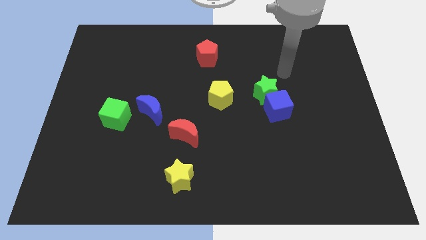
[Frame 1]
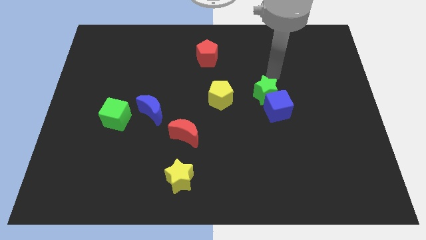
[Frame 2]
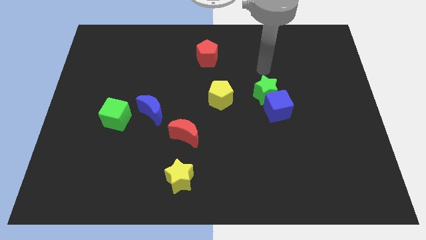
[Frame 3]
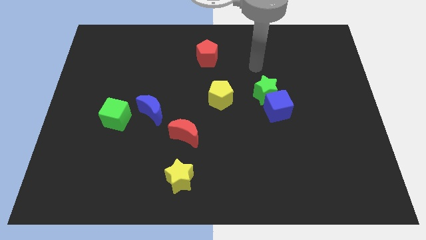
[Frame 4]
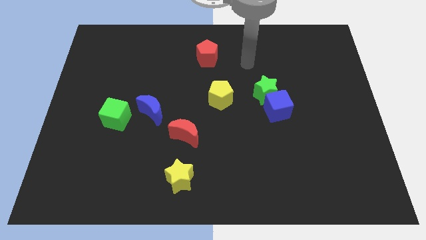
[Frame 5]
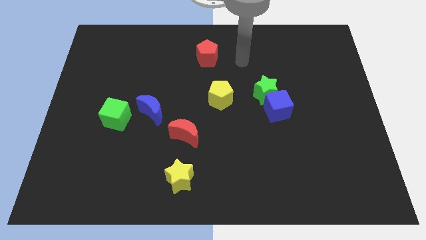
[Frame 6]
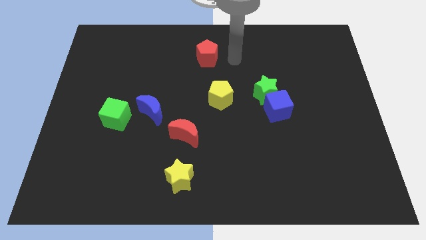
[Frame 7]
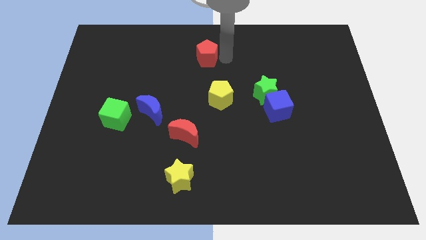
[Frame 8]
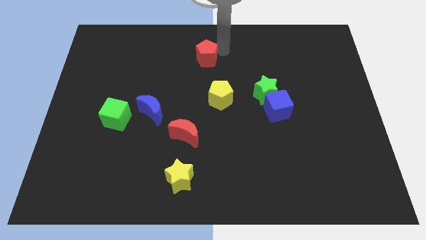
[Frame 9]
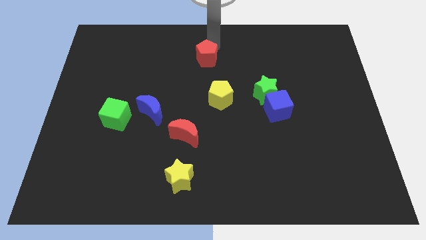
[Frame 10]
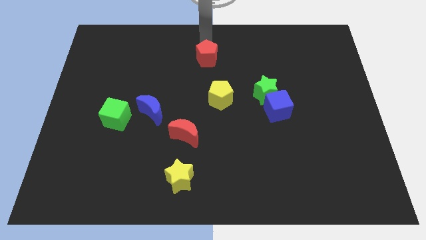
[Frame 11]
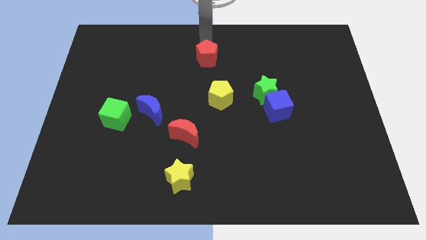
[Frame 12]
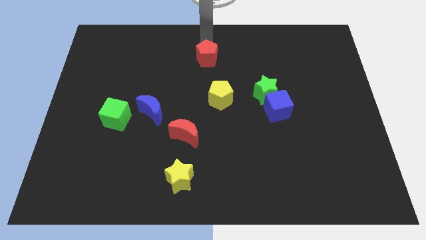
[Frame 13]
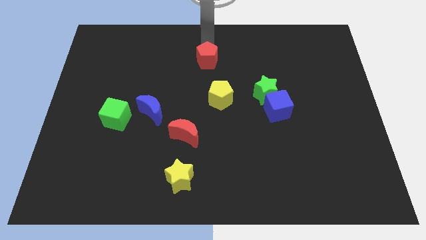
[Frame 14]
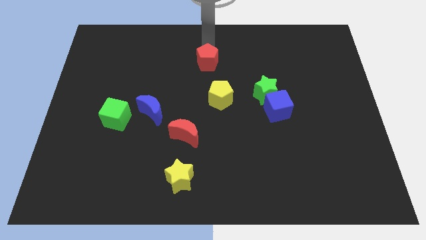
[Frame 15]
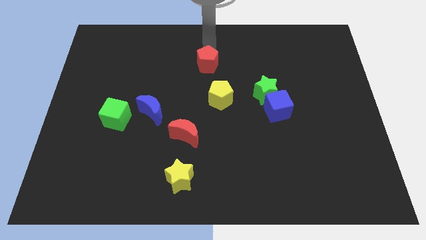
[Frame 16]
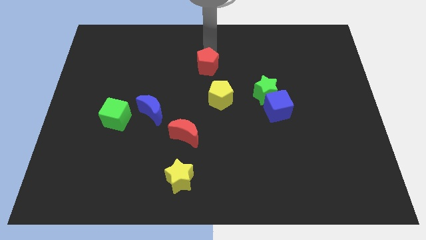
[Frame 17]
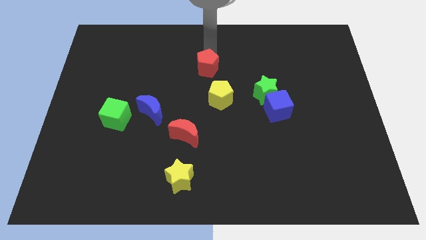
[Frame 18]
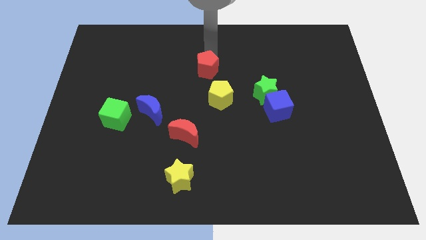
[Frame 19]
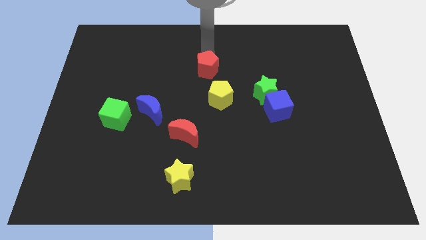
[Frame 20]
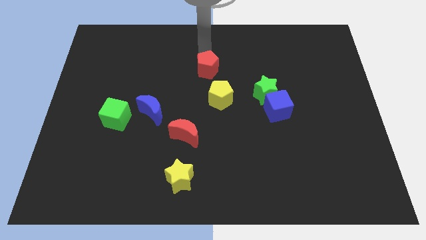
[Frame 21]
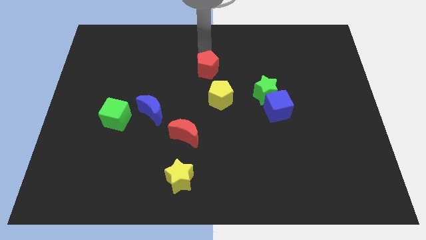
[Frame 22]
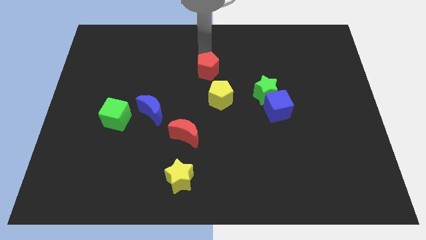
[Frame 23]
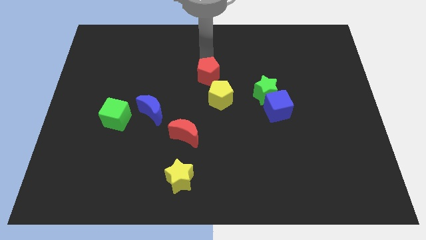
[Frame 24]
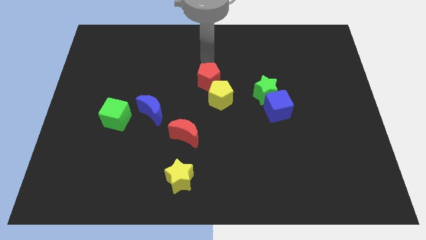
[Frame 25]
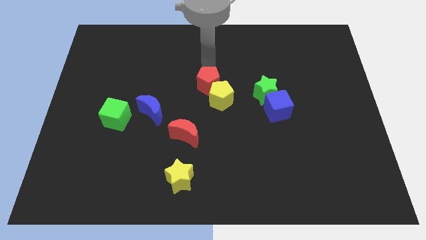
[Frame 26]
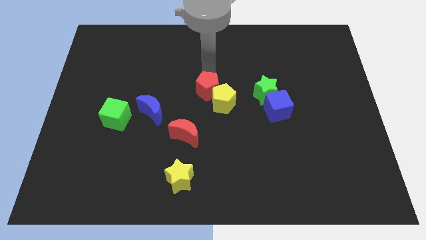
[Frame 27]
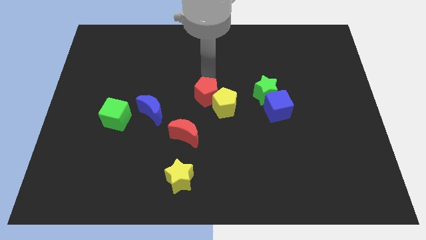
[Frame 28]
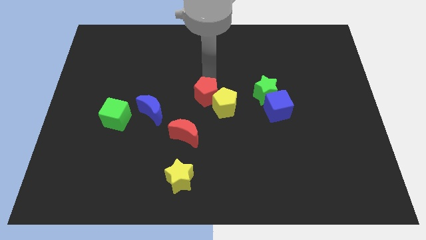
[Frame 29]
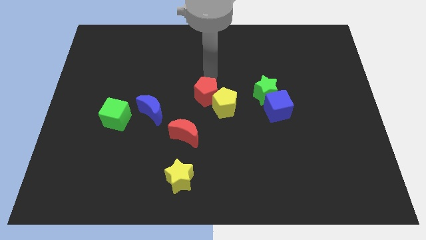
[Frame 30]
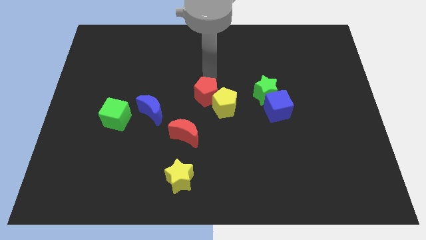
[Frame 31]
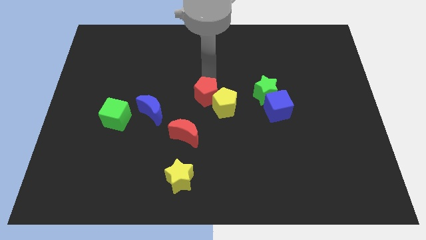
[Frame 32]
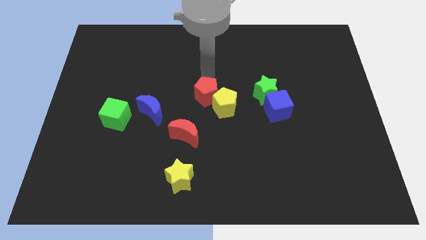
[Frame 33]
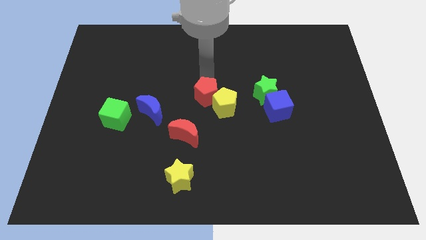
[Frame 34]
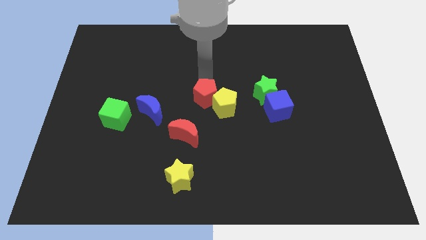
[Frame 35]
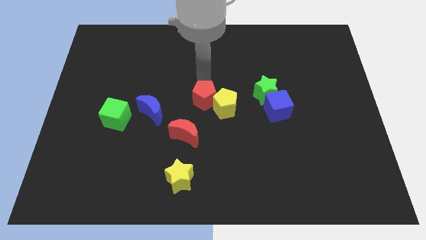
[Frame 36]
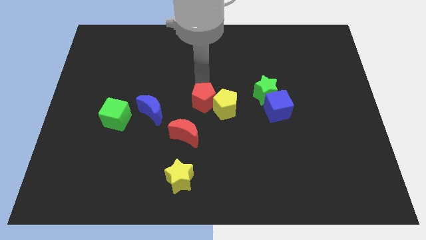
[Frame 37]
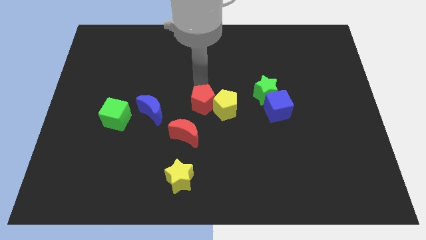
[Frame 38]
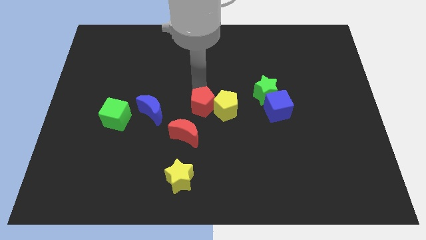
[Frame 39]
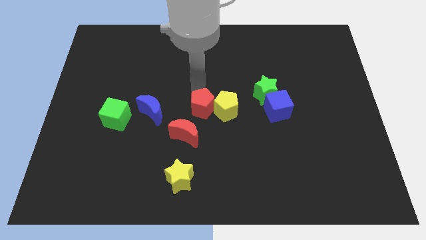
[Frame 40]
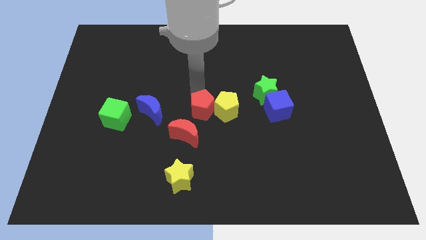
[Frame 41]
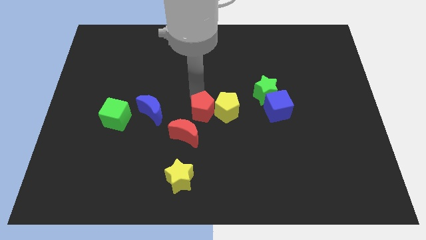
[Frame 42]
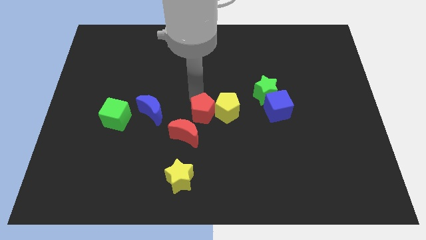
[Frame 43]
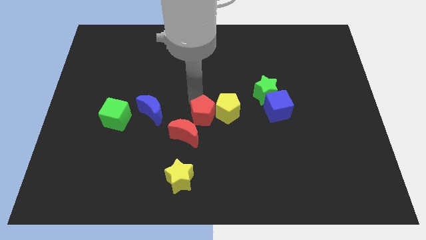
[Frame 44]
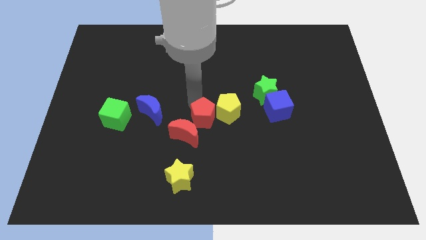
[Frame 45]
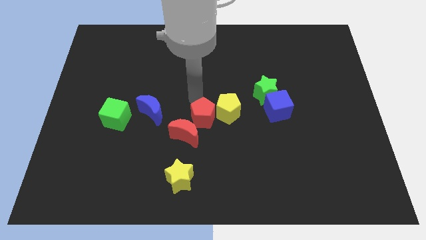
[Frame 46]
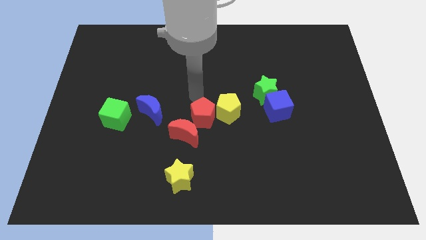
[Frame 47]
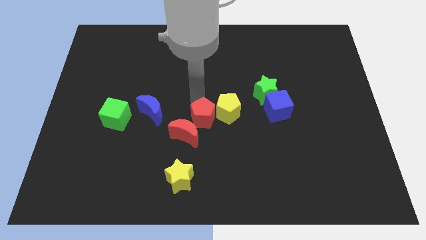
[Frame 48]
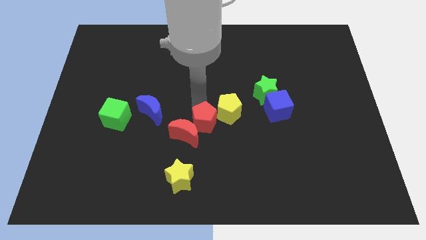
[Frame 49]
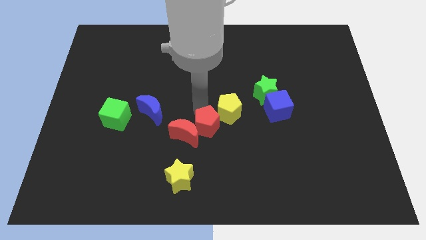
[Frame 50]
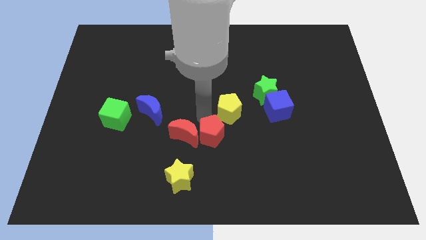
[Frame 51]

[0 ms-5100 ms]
slide the red pentagon to the bottom right side of the red moon

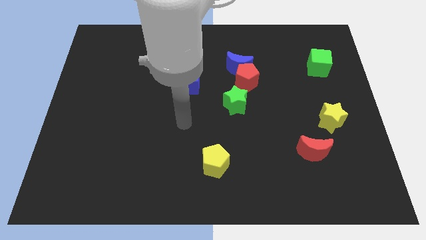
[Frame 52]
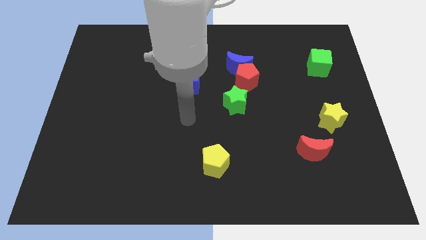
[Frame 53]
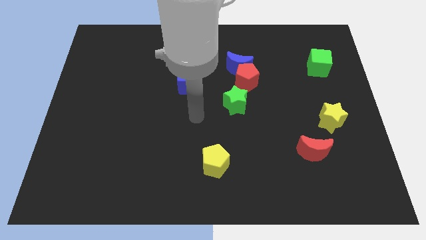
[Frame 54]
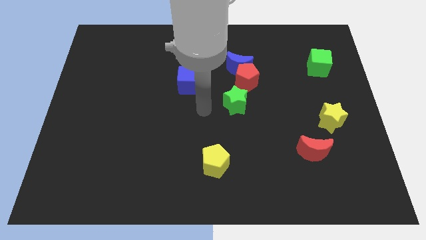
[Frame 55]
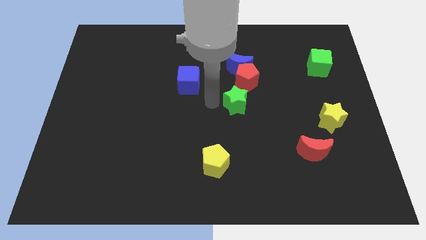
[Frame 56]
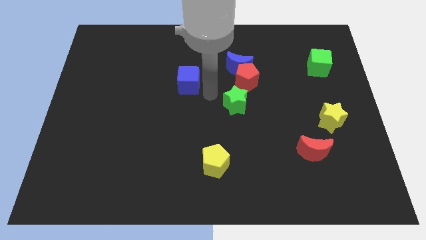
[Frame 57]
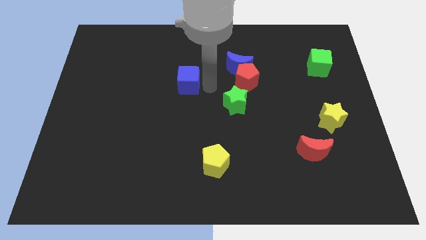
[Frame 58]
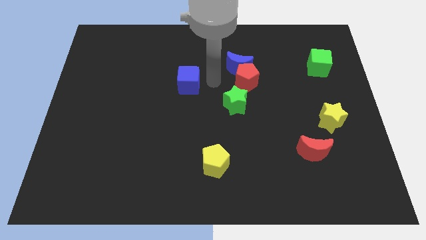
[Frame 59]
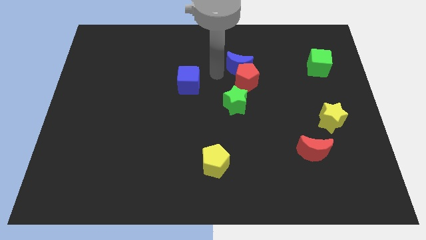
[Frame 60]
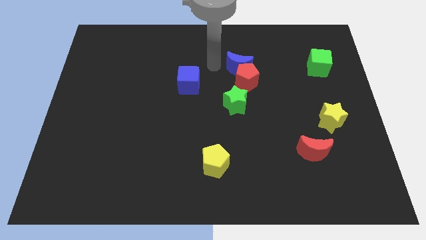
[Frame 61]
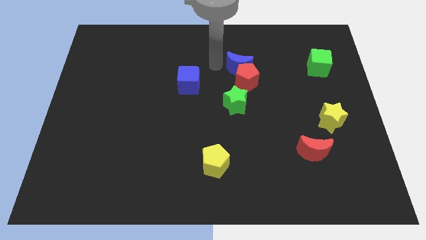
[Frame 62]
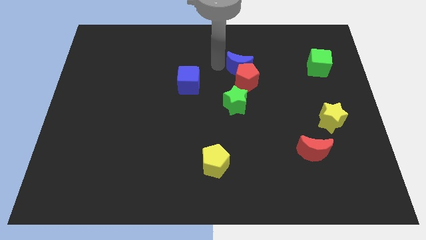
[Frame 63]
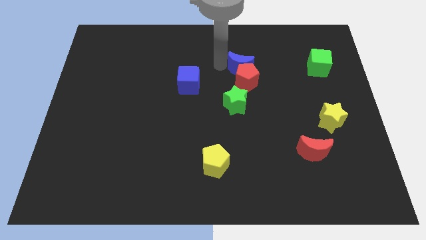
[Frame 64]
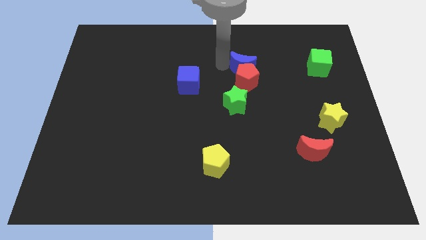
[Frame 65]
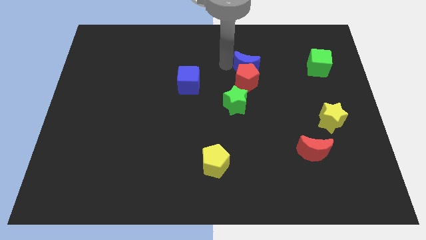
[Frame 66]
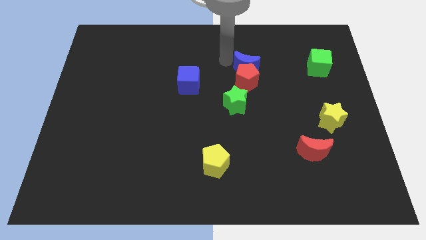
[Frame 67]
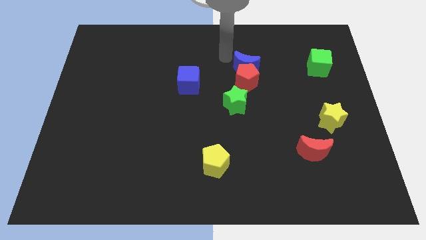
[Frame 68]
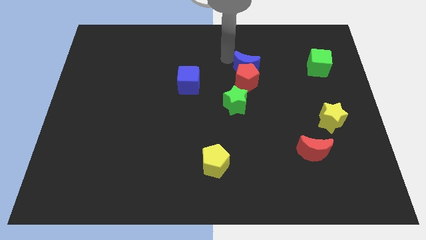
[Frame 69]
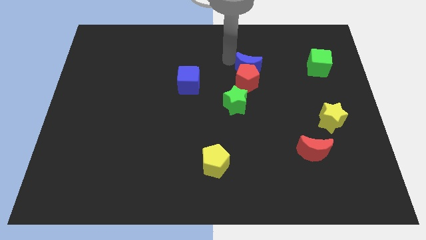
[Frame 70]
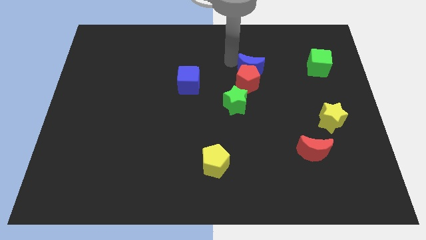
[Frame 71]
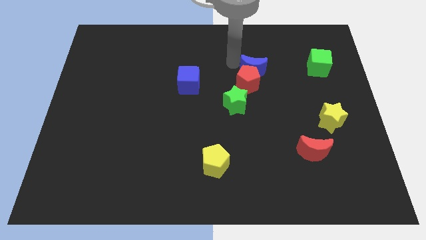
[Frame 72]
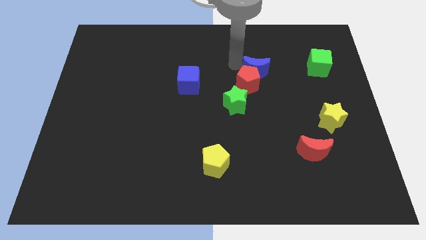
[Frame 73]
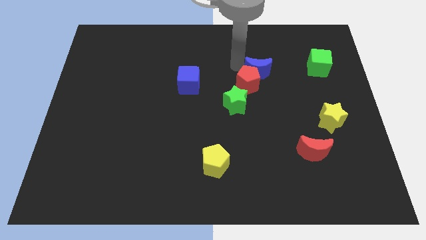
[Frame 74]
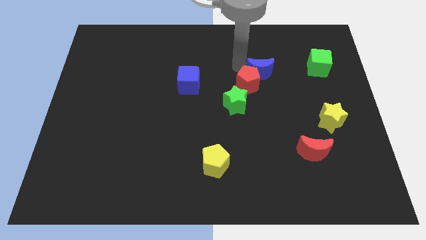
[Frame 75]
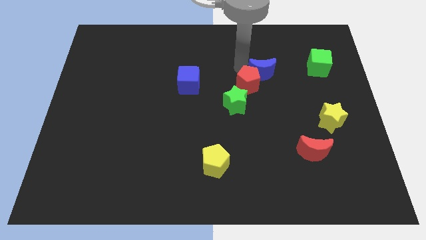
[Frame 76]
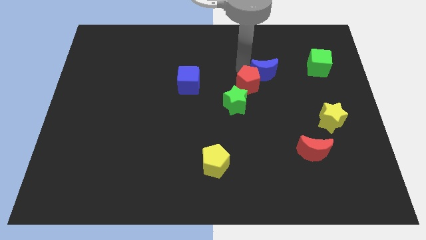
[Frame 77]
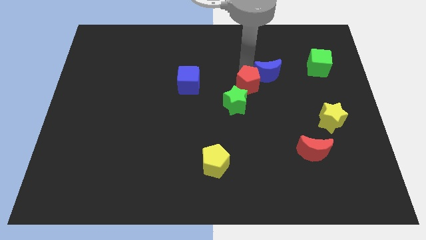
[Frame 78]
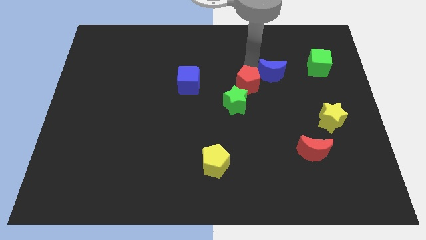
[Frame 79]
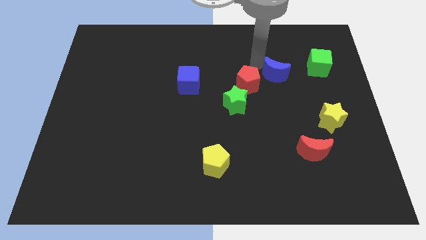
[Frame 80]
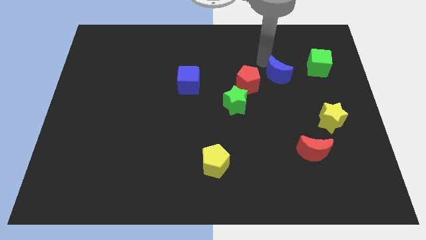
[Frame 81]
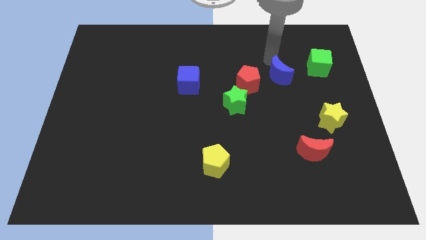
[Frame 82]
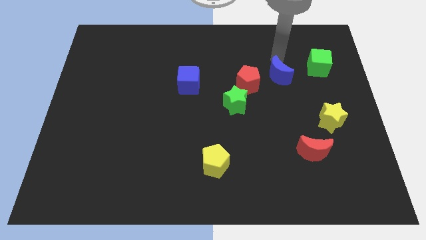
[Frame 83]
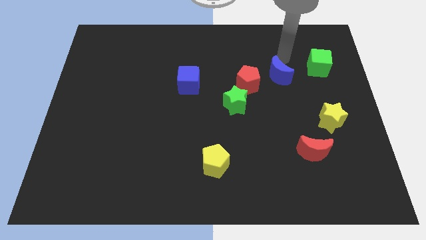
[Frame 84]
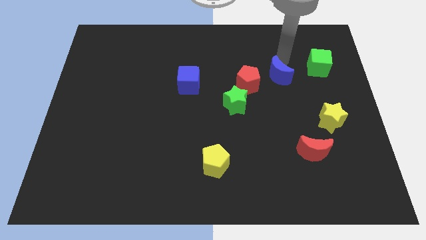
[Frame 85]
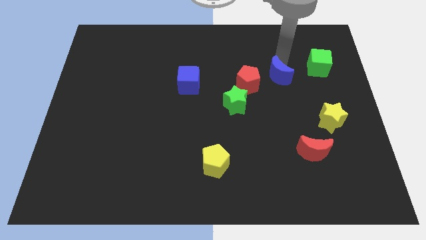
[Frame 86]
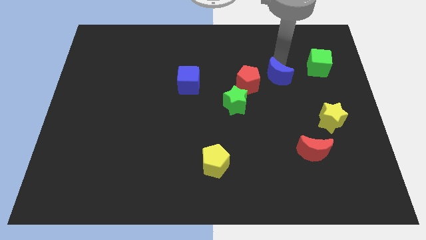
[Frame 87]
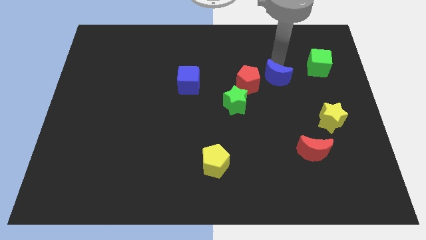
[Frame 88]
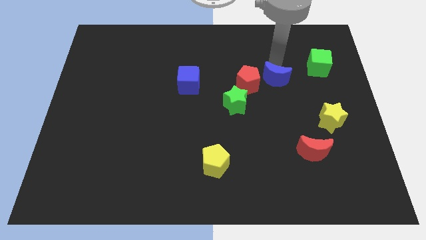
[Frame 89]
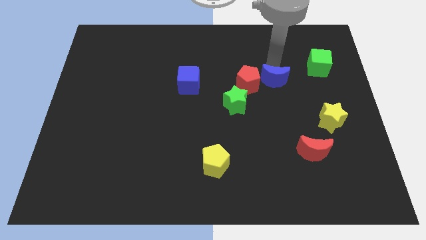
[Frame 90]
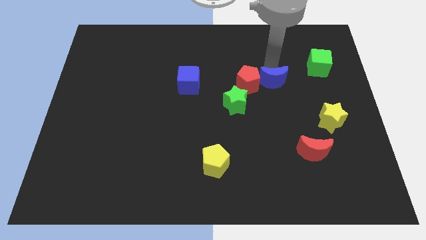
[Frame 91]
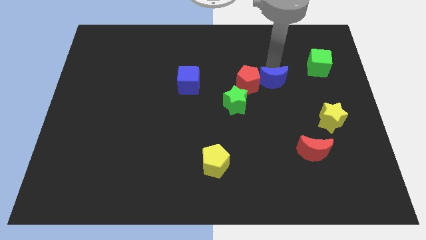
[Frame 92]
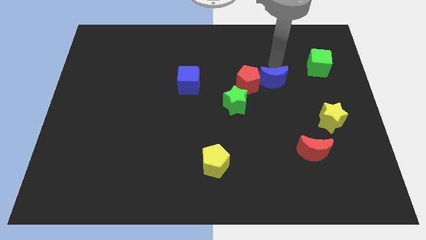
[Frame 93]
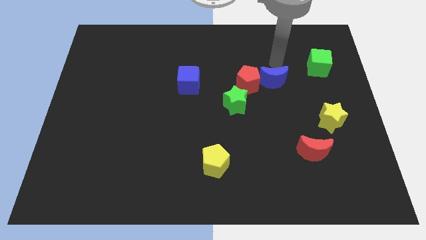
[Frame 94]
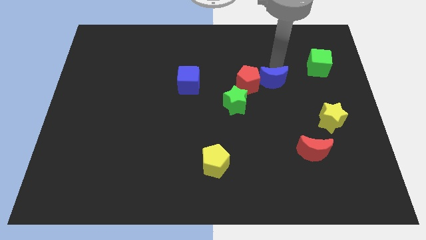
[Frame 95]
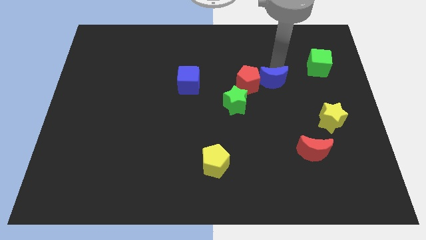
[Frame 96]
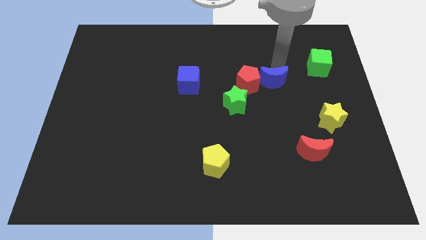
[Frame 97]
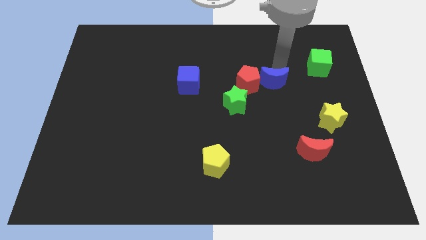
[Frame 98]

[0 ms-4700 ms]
push the blue moon diagonally down and to the right of the red pentagon
